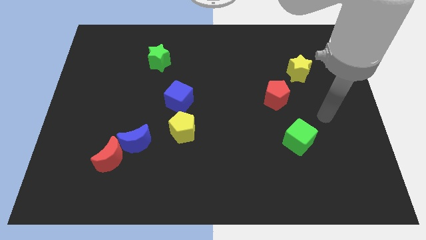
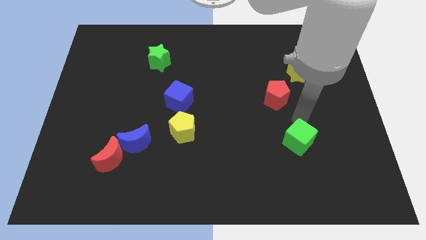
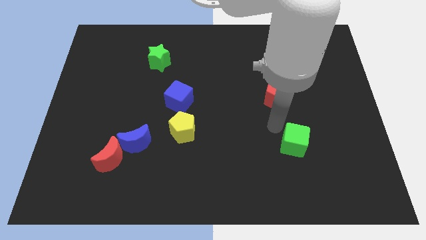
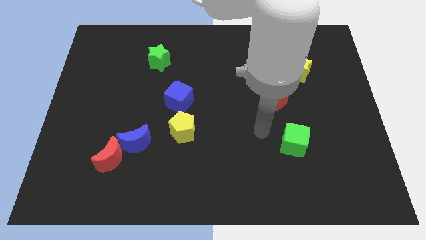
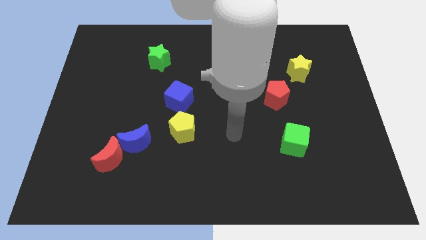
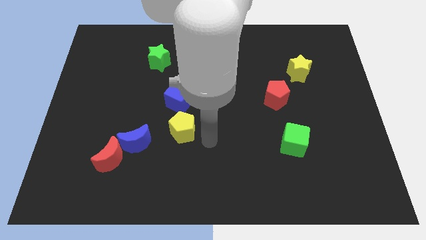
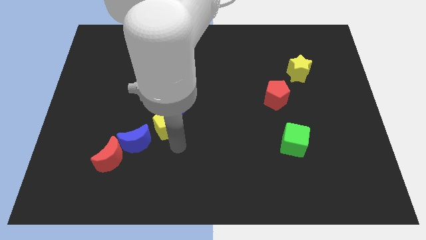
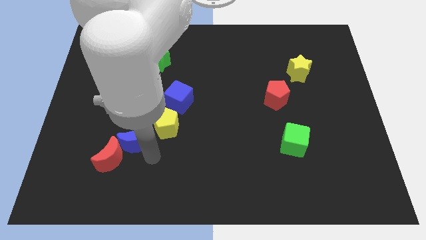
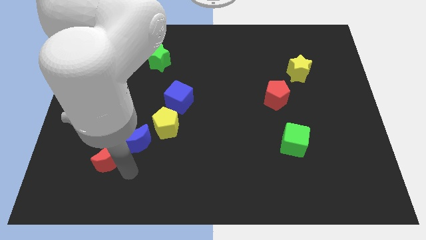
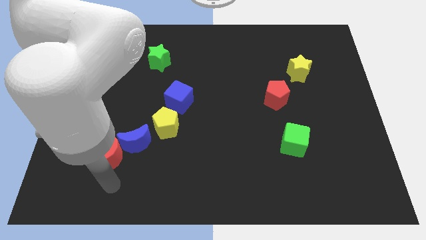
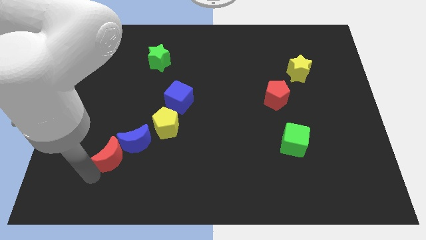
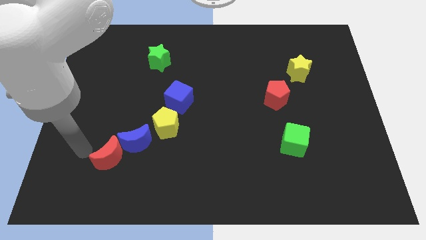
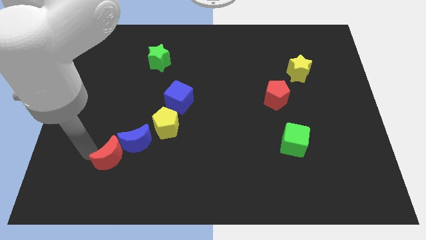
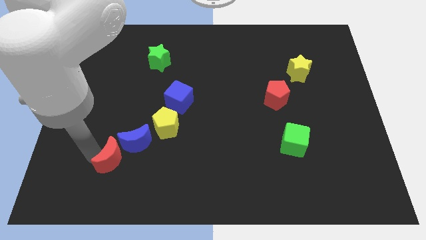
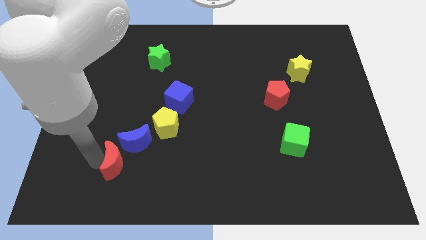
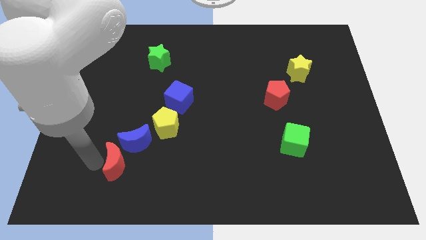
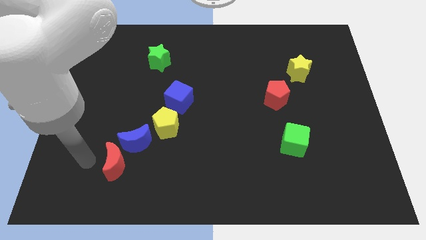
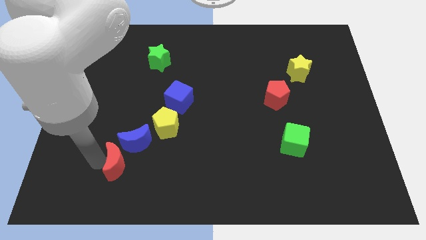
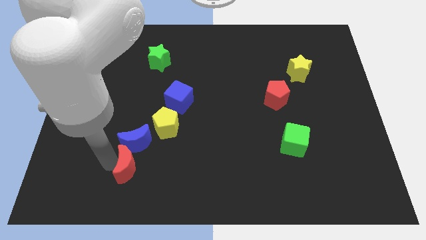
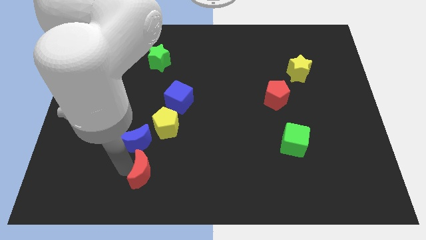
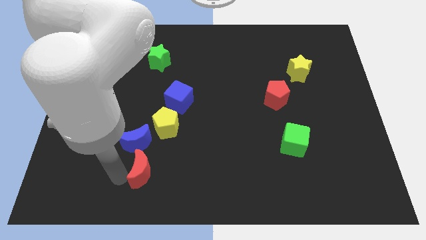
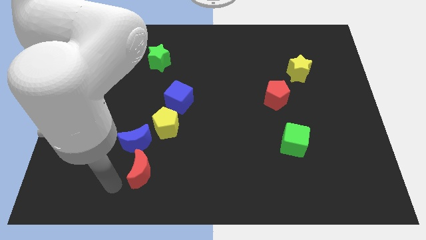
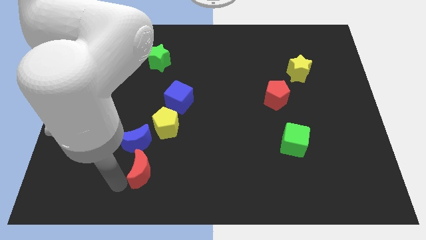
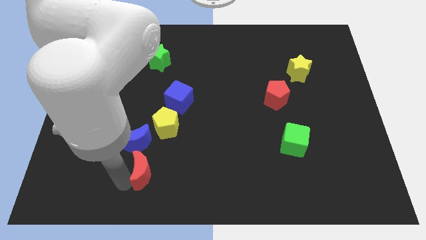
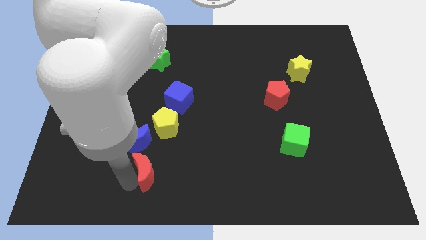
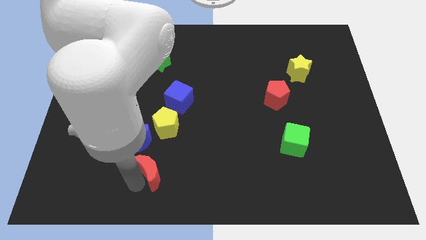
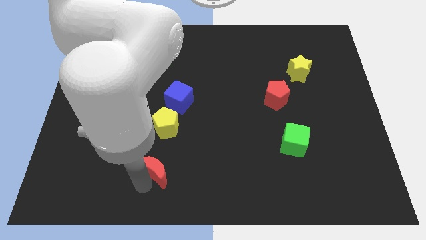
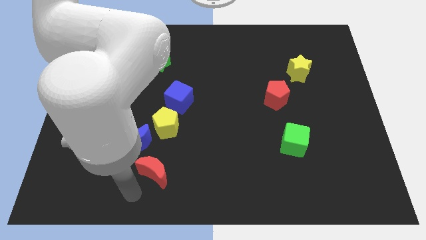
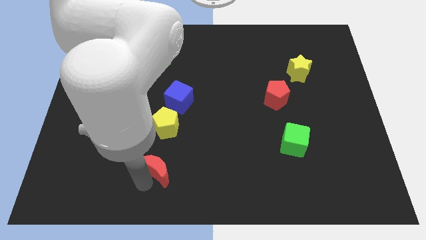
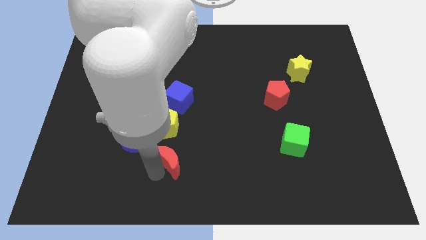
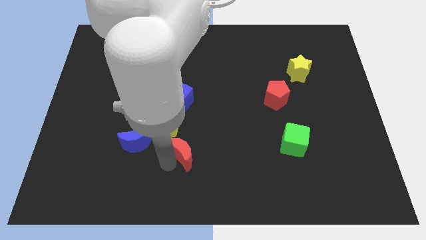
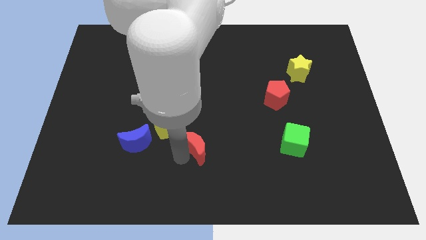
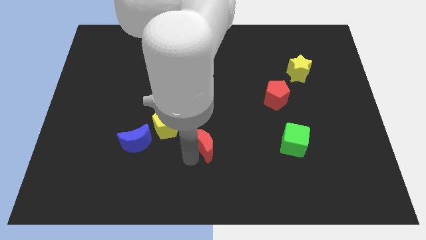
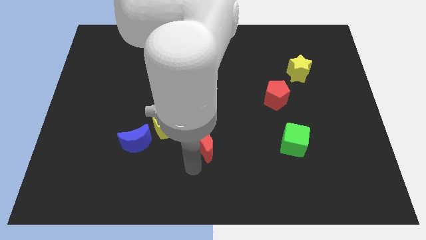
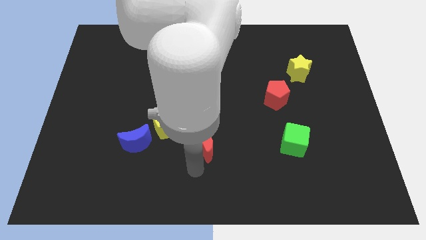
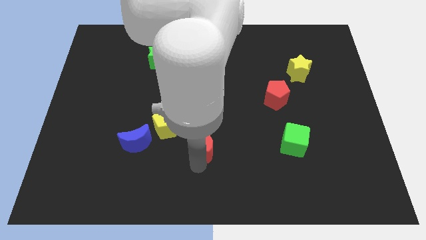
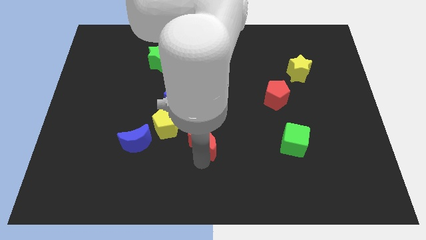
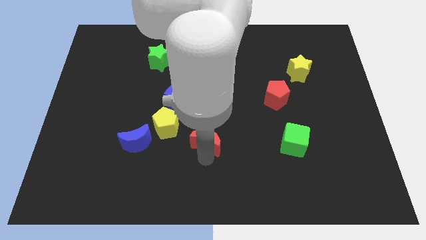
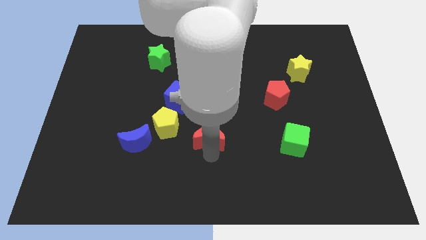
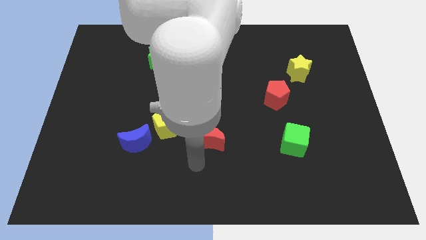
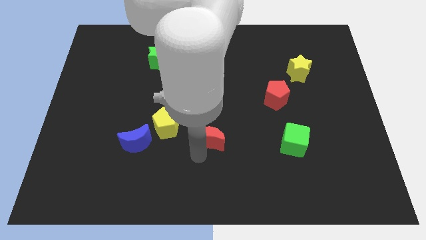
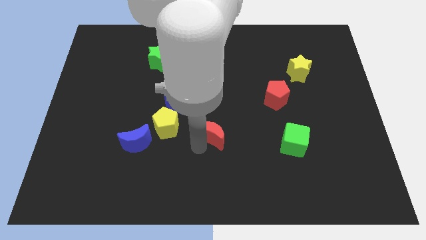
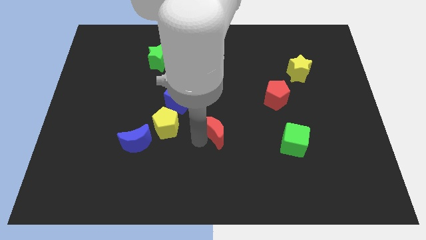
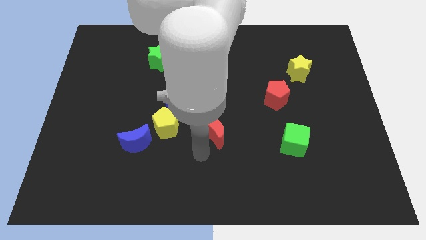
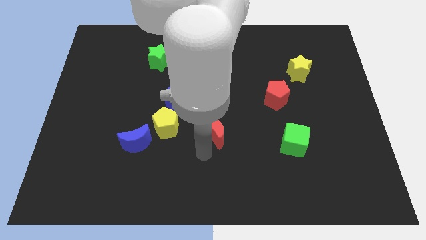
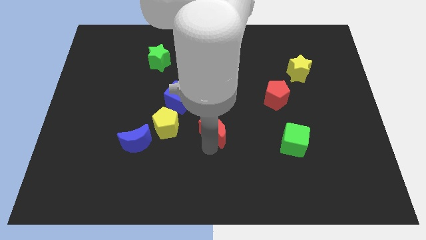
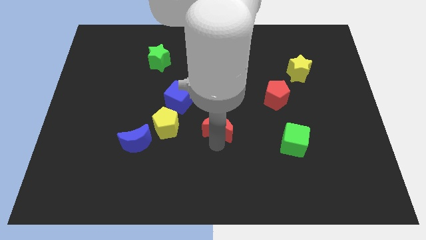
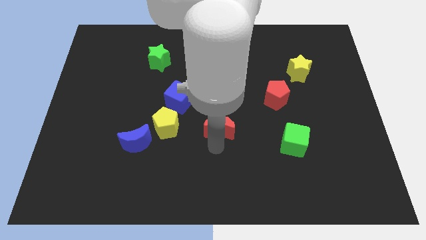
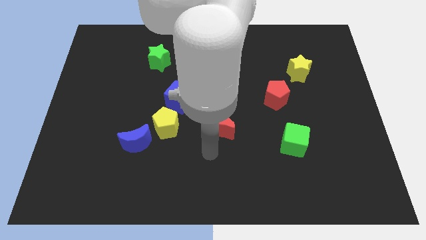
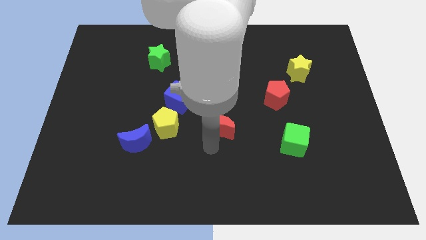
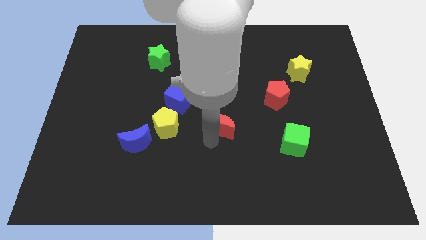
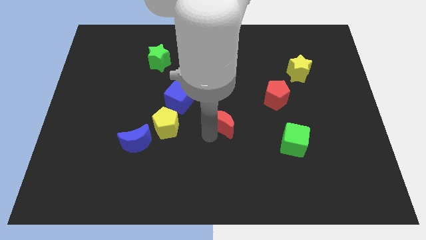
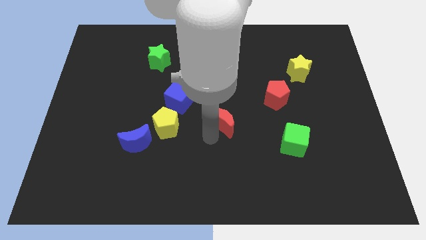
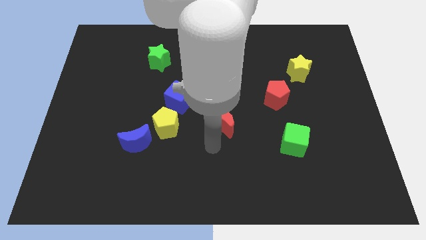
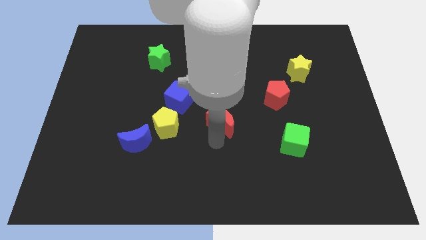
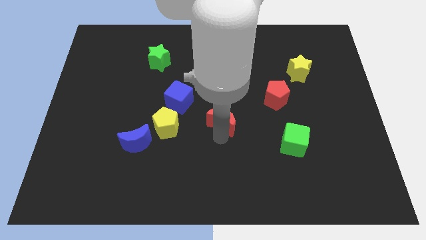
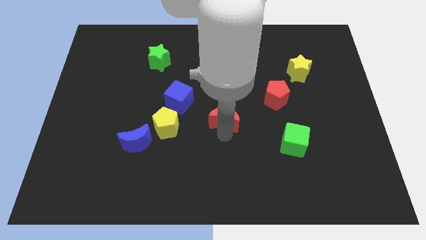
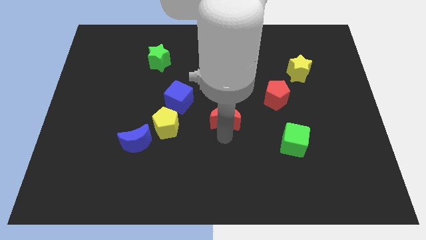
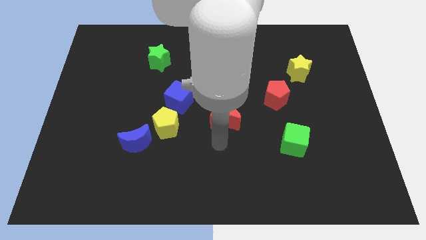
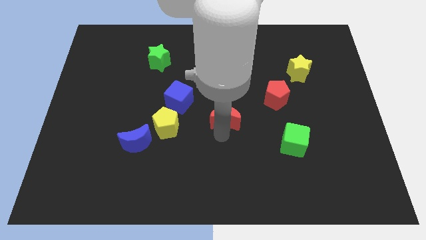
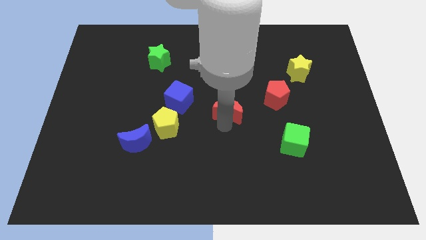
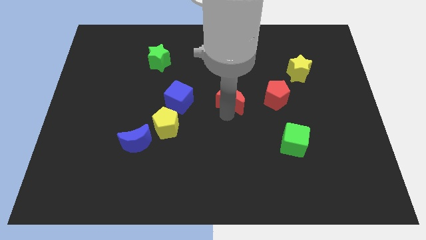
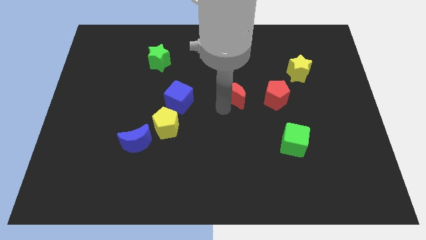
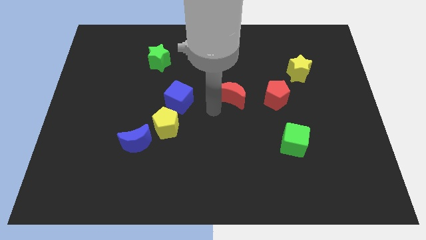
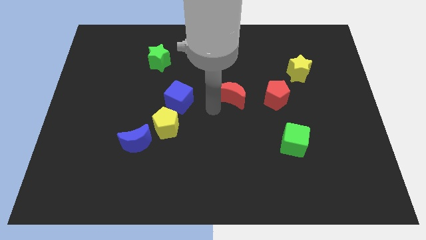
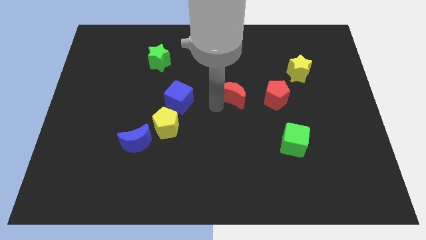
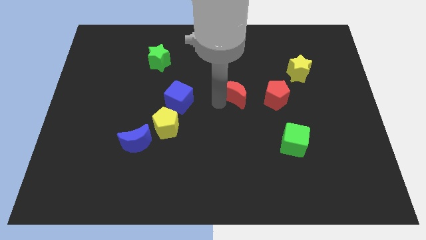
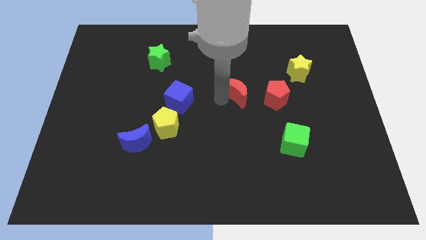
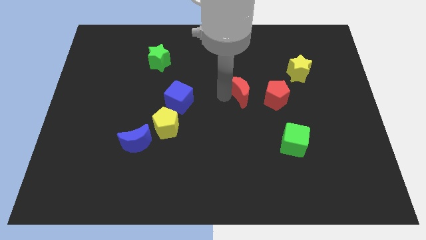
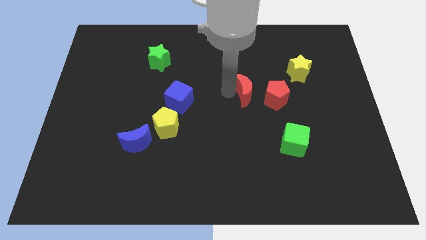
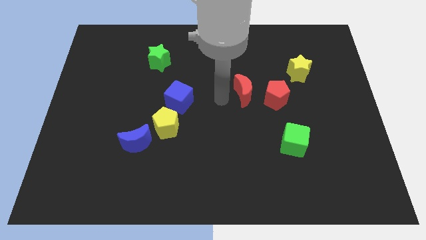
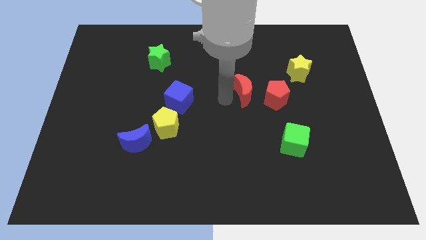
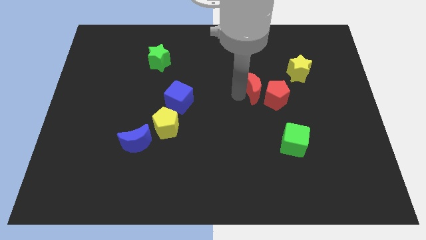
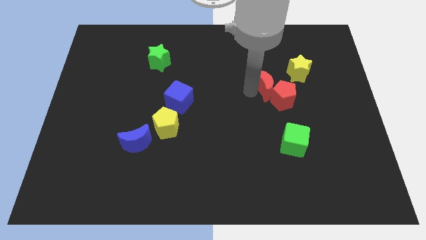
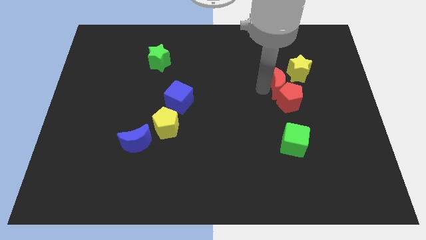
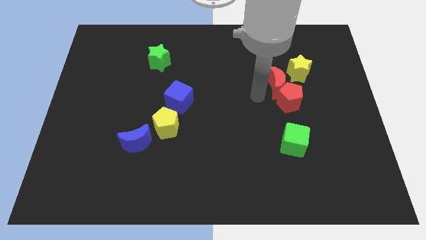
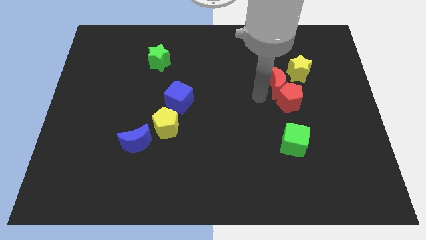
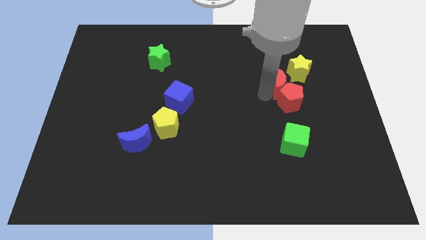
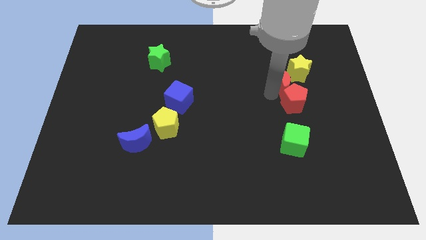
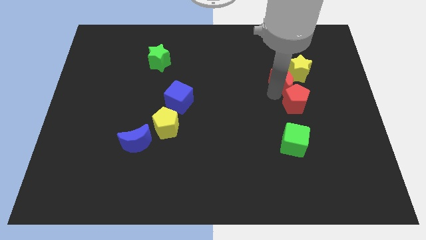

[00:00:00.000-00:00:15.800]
slide the red moon to the yellow star
